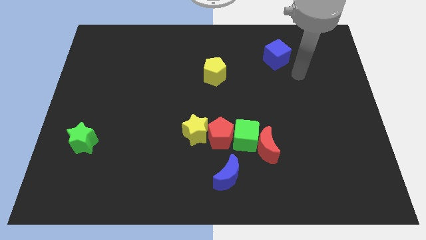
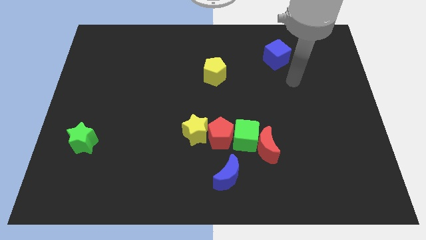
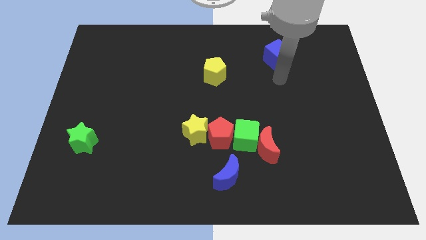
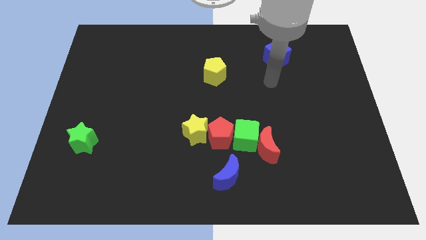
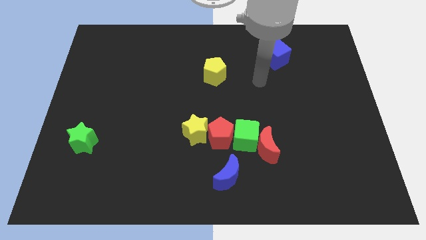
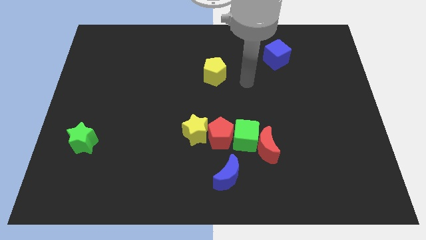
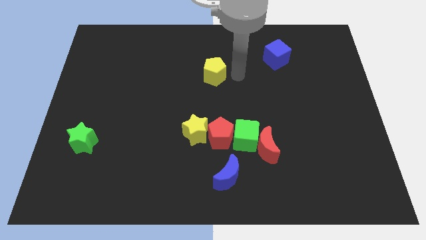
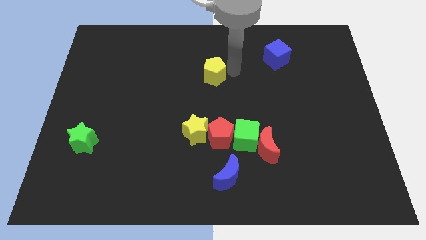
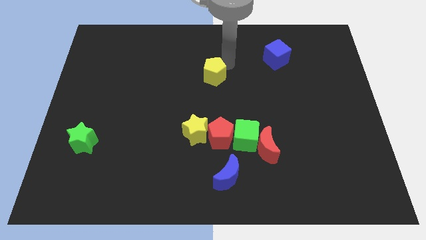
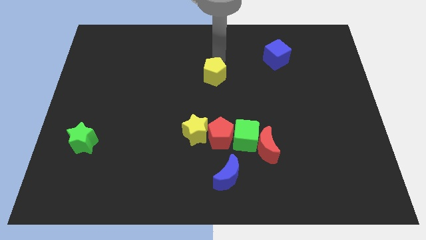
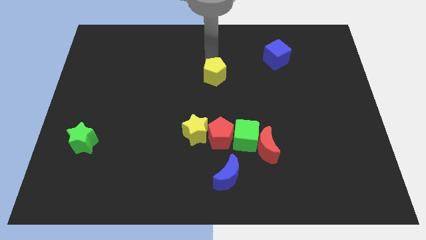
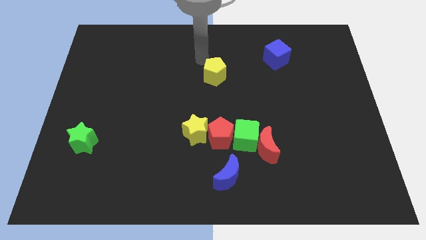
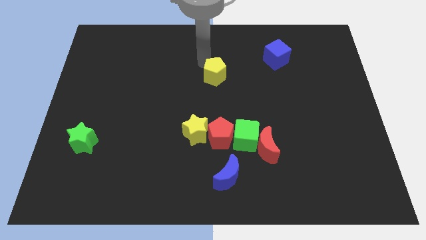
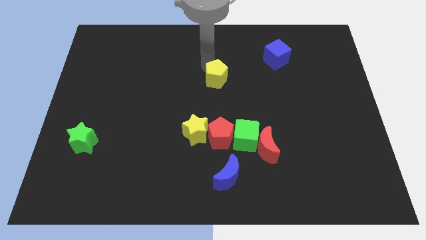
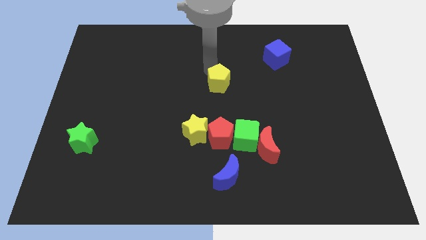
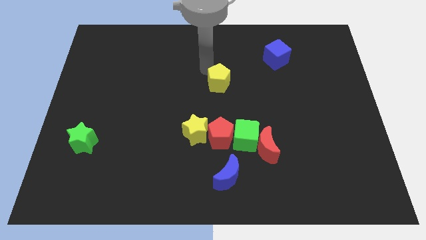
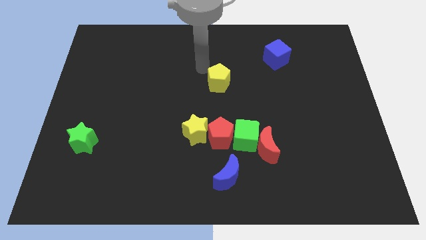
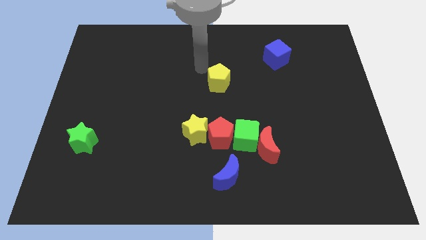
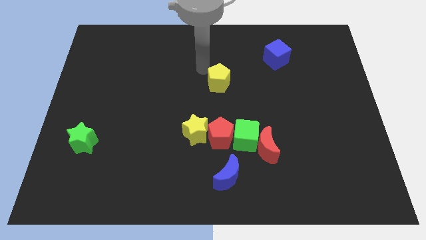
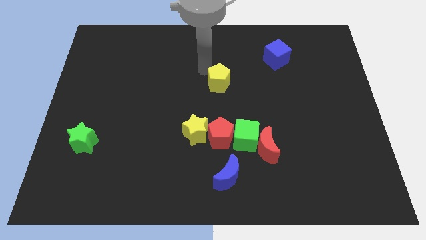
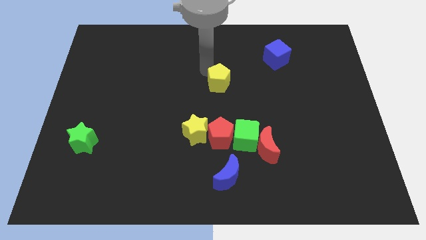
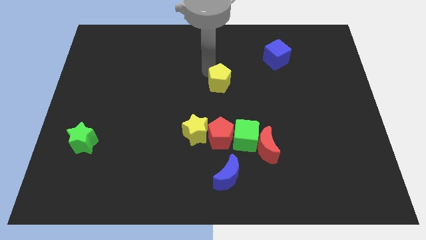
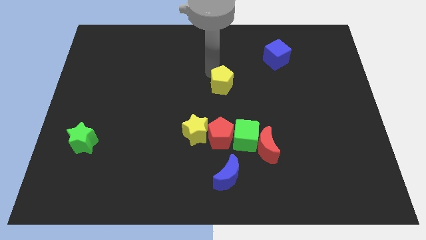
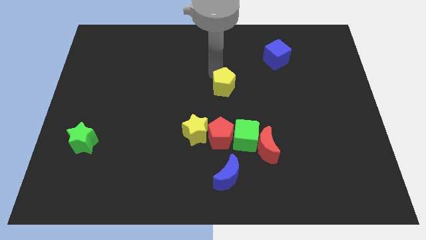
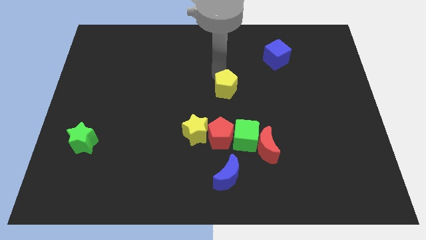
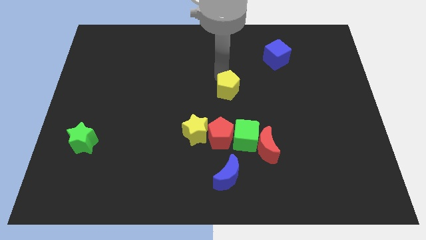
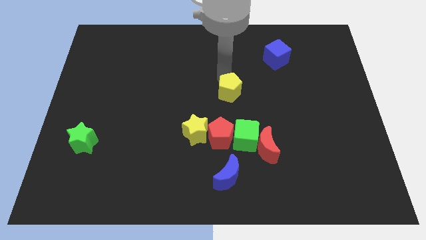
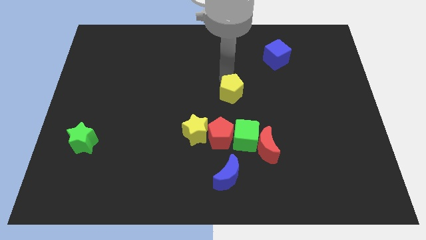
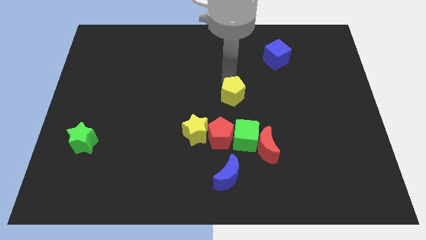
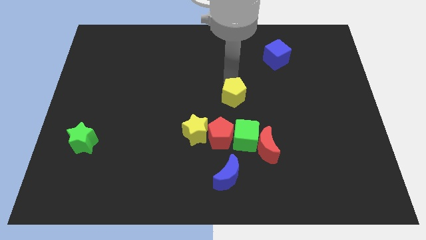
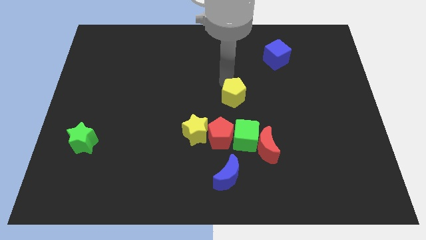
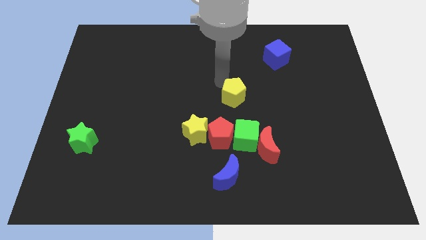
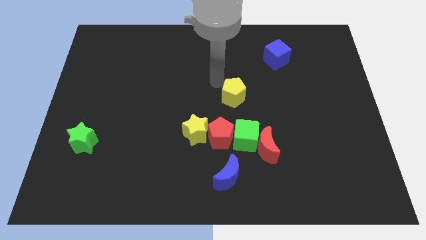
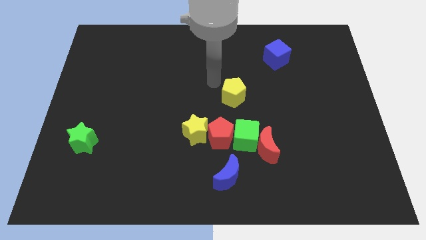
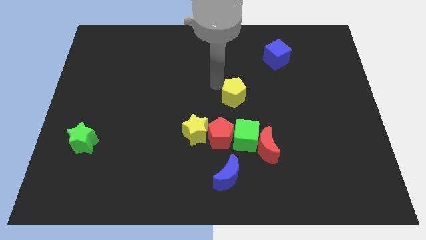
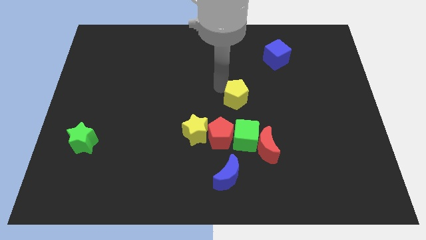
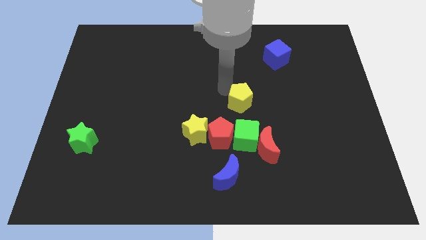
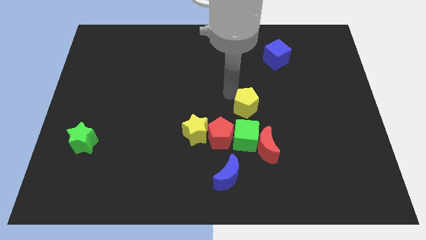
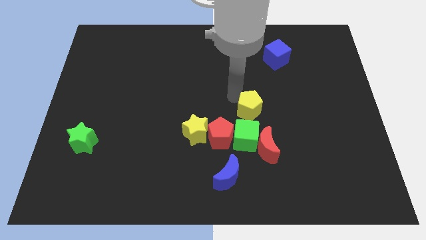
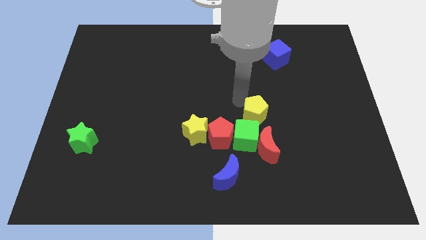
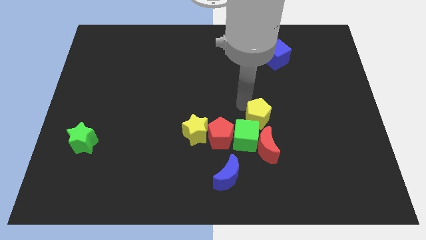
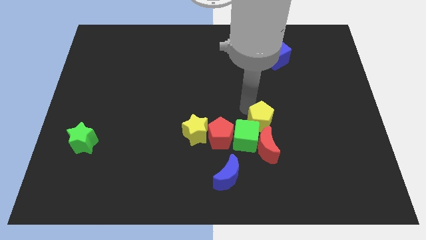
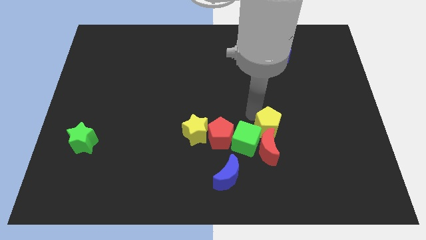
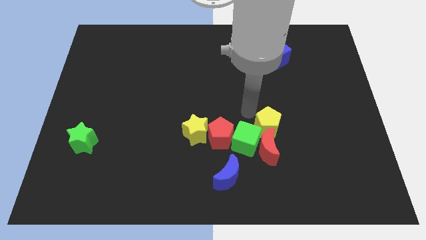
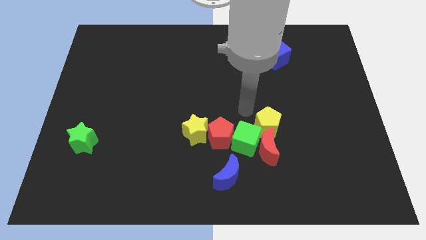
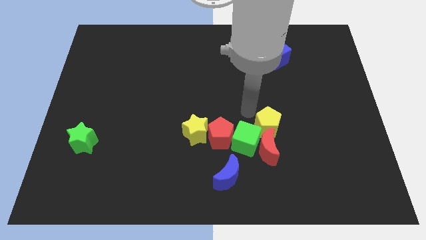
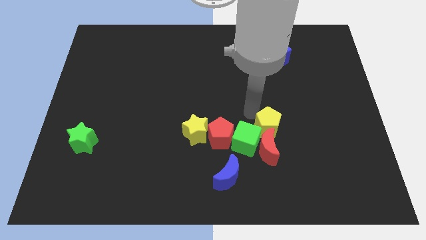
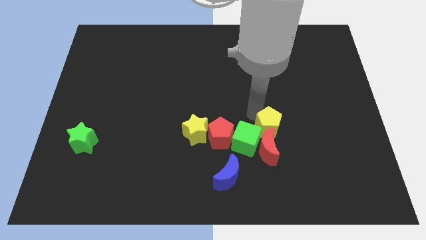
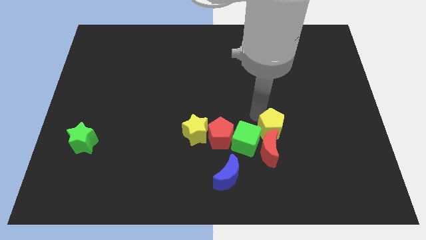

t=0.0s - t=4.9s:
push the yellow pentagon down and then to the right

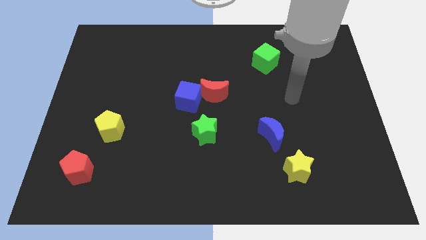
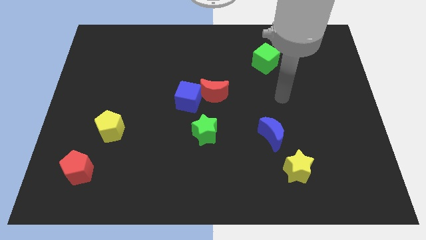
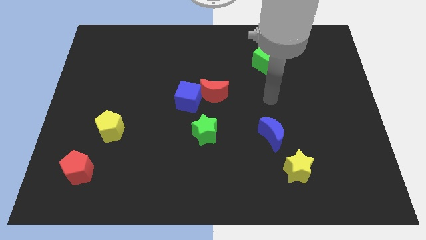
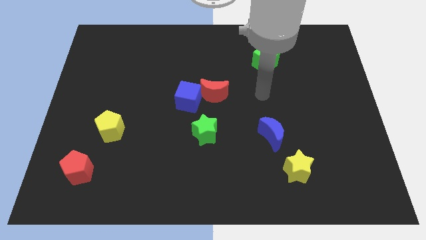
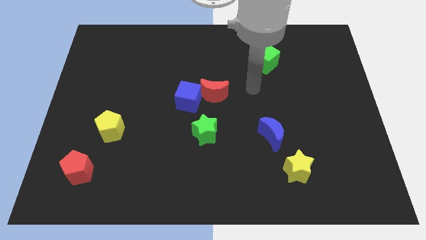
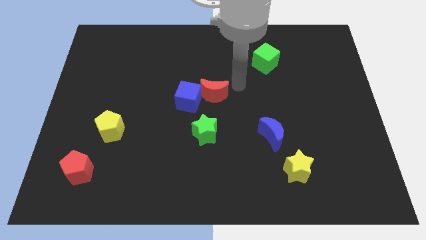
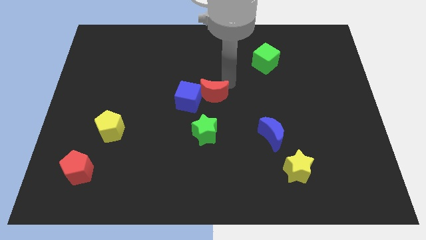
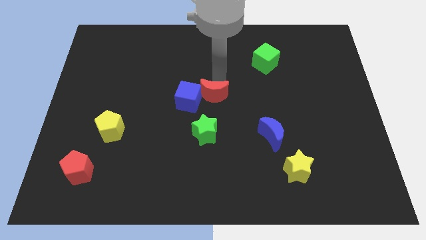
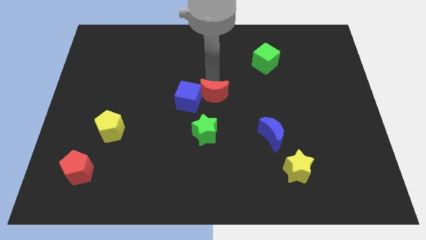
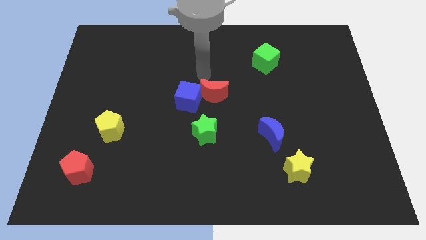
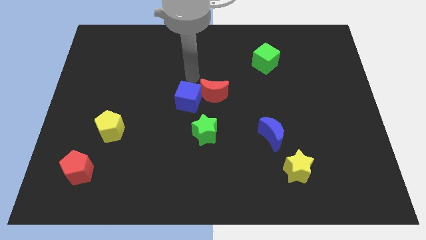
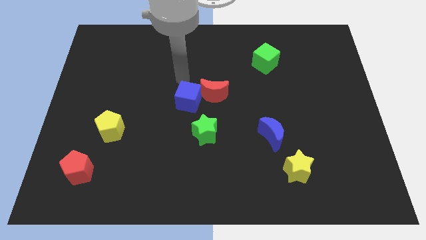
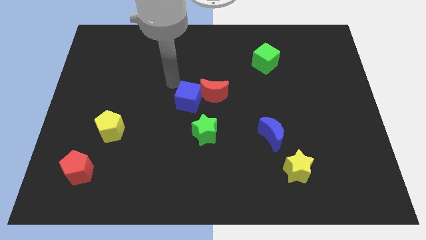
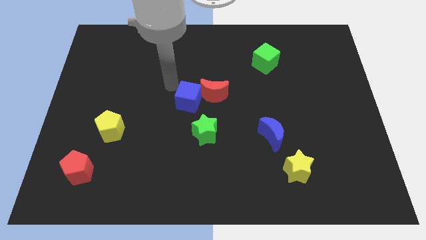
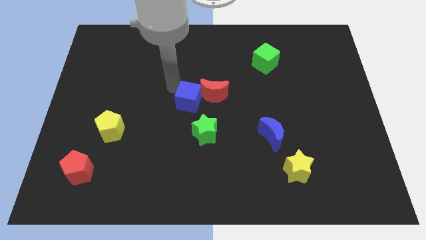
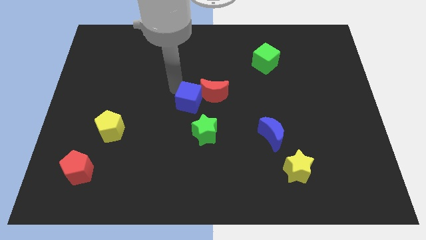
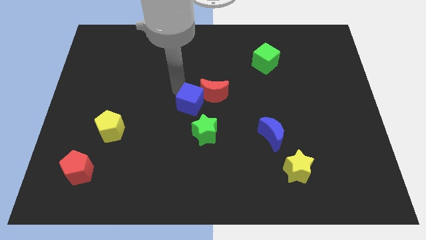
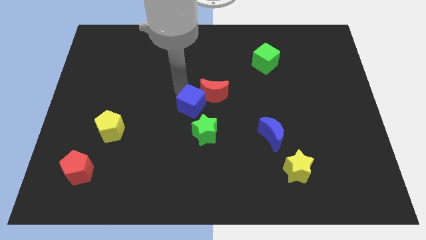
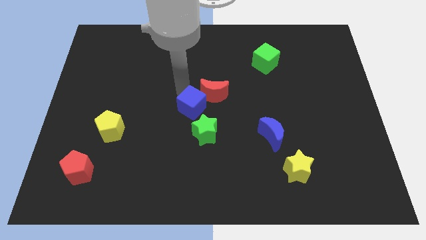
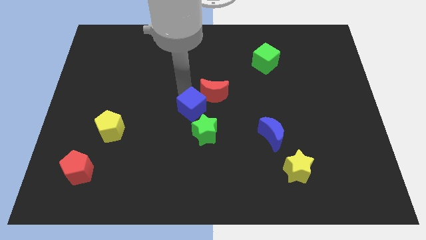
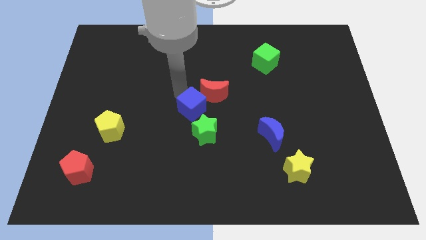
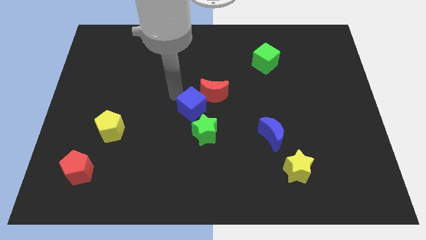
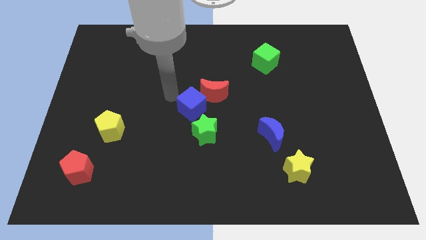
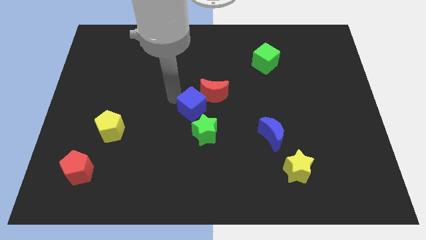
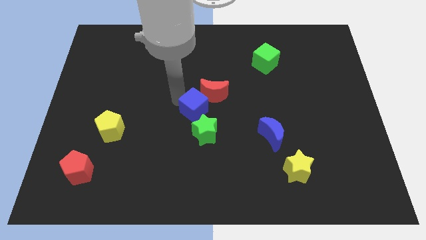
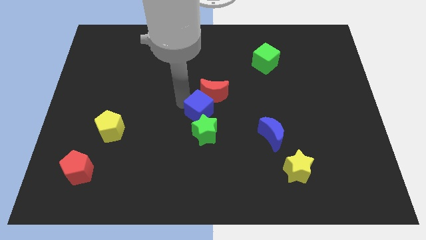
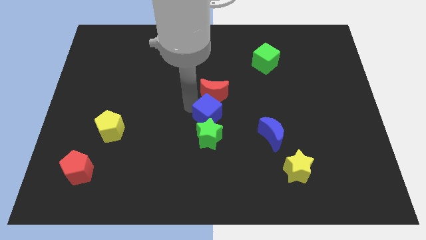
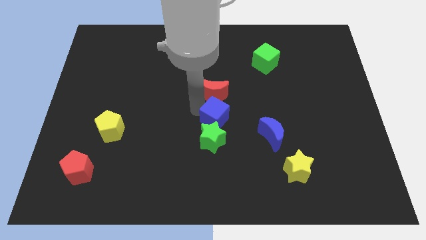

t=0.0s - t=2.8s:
push the blue cube downwards and right diagonally slightly

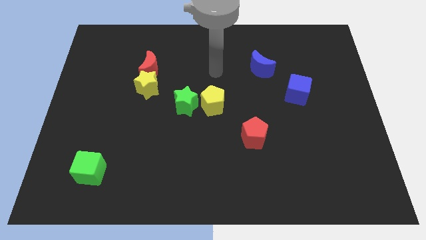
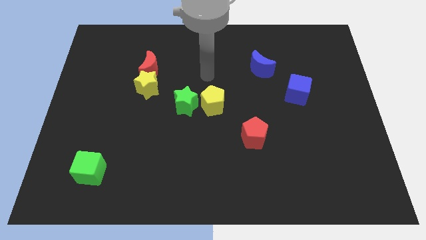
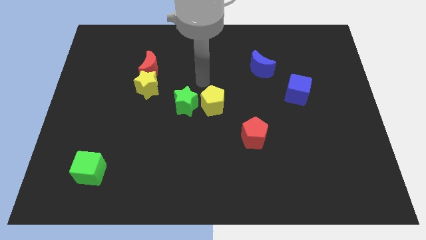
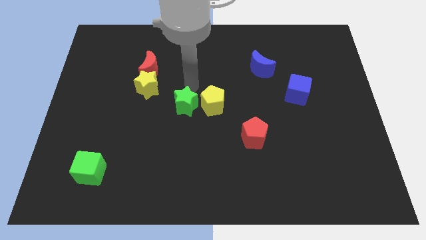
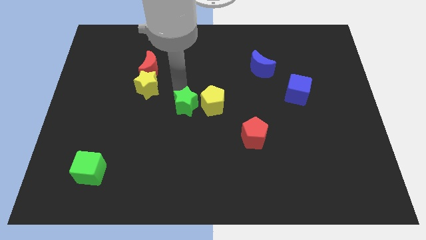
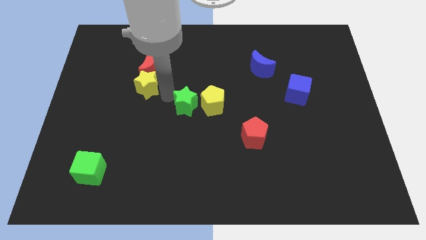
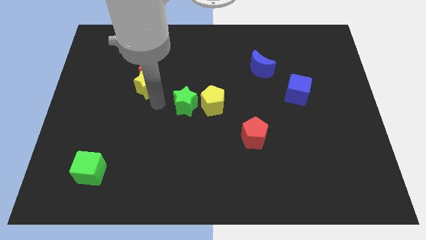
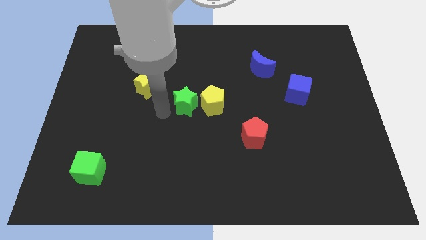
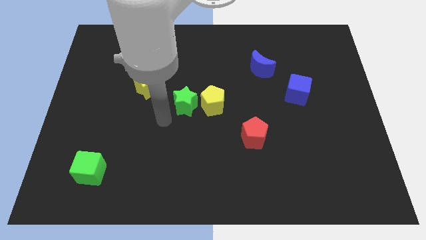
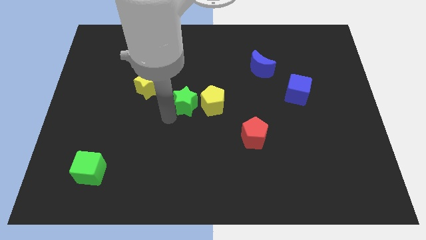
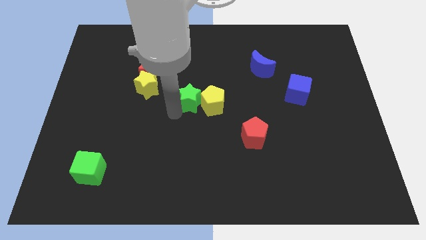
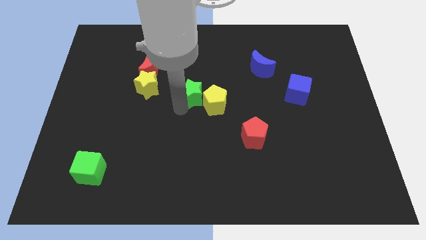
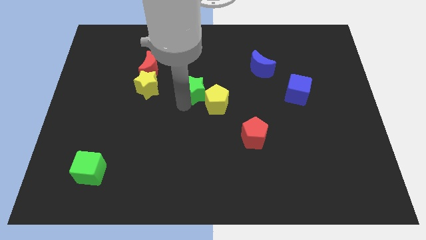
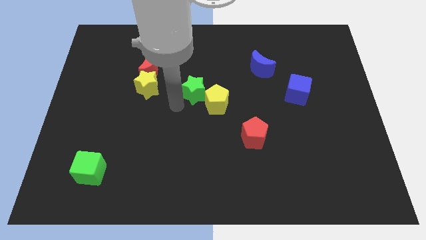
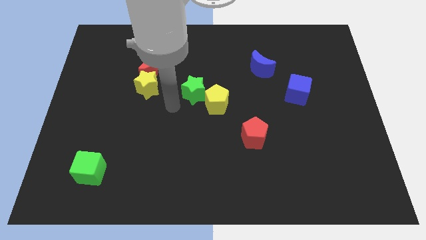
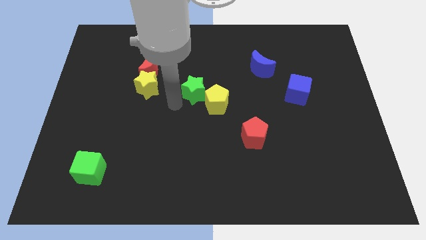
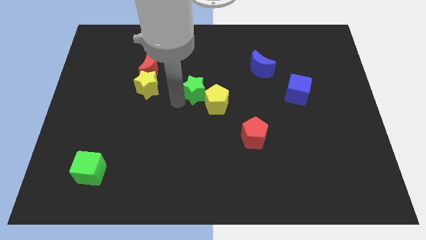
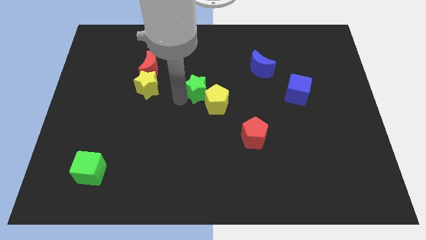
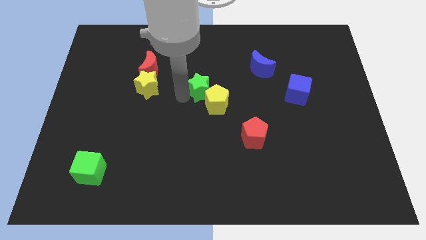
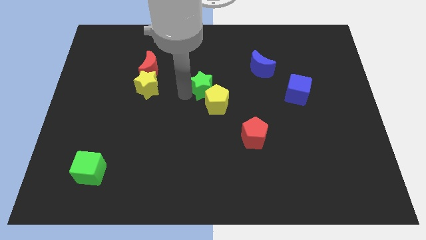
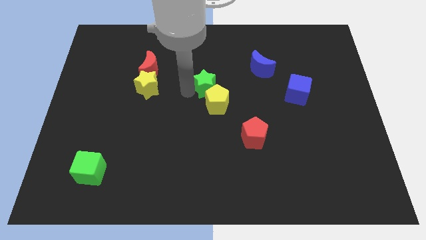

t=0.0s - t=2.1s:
slightly slide the green star upwards and to the right
